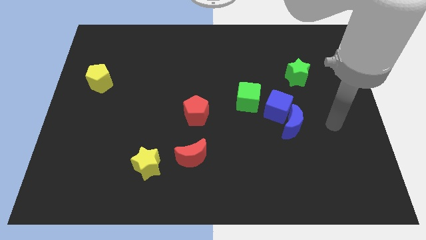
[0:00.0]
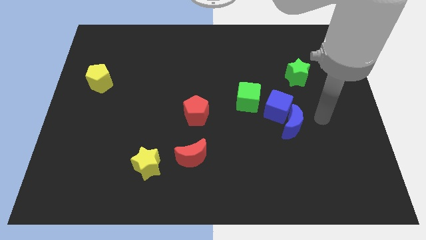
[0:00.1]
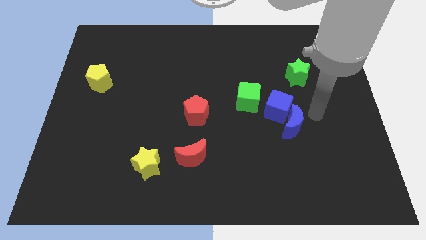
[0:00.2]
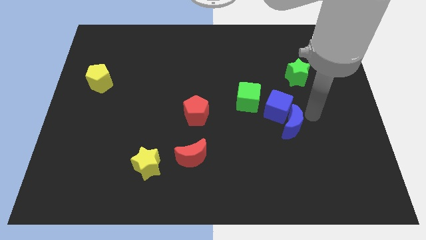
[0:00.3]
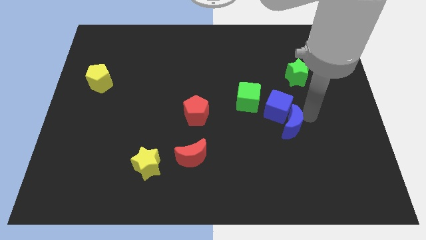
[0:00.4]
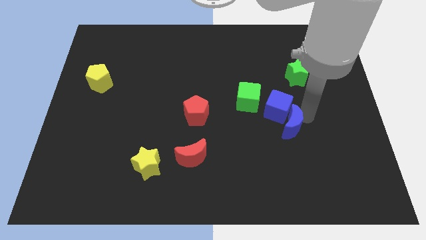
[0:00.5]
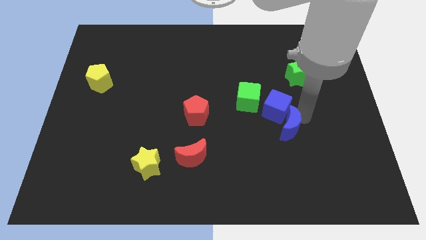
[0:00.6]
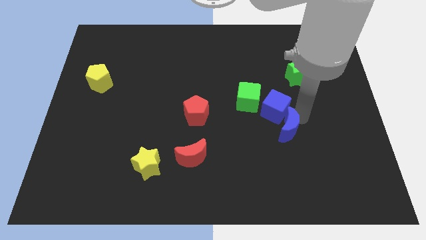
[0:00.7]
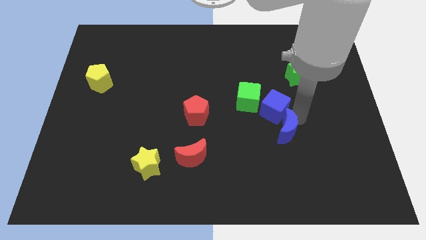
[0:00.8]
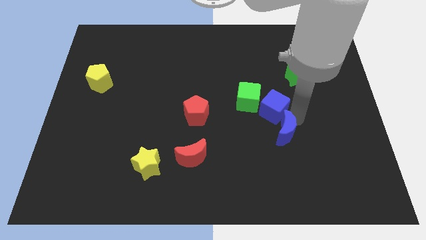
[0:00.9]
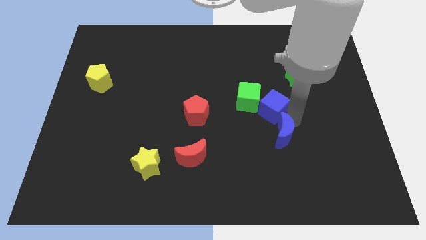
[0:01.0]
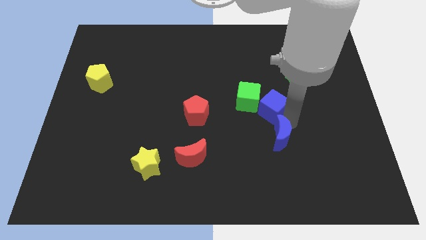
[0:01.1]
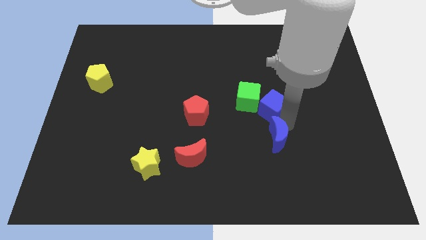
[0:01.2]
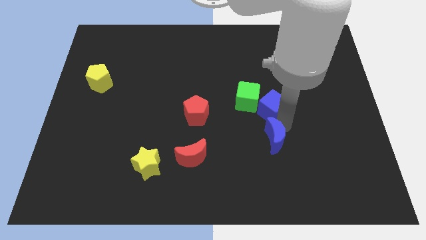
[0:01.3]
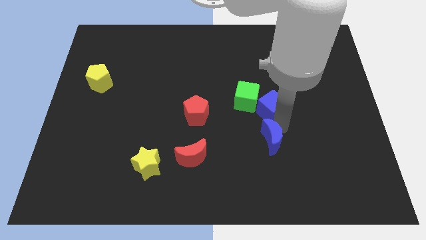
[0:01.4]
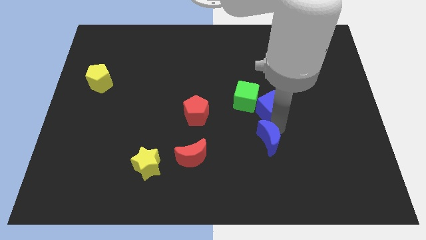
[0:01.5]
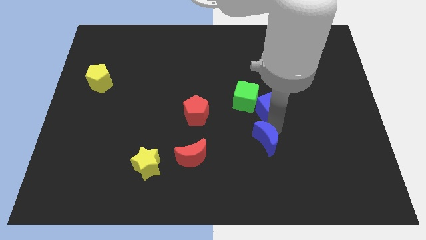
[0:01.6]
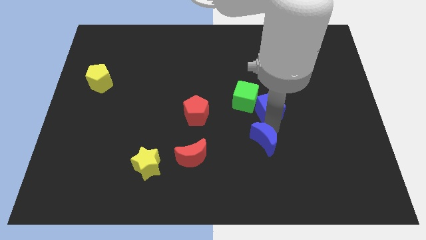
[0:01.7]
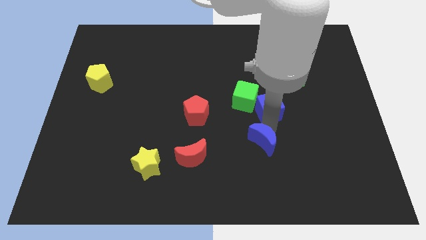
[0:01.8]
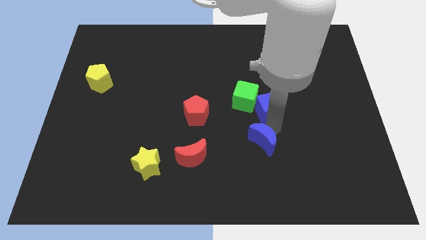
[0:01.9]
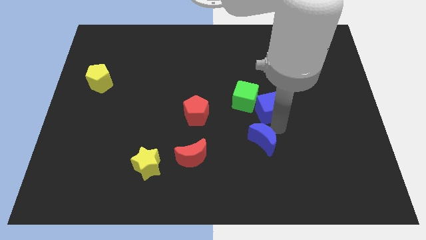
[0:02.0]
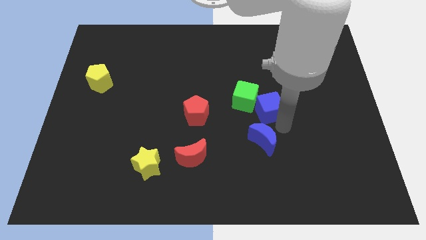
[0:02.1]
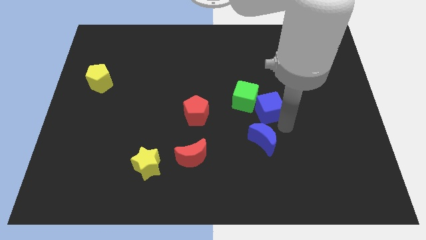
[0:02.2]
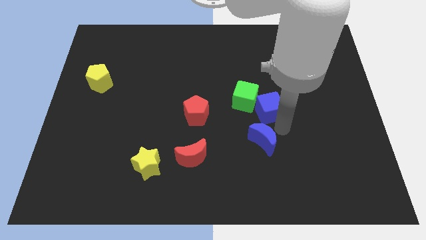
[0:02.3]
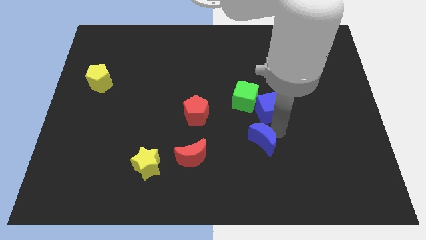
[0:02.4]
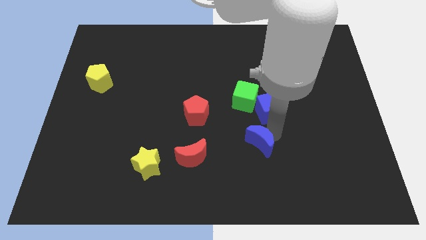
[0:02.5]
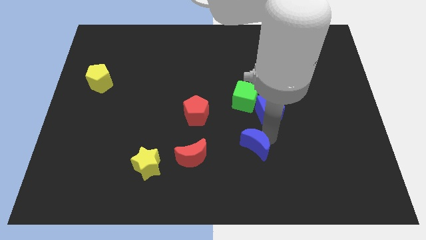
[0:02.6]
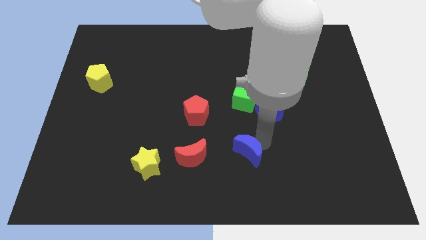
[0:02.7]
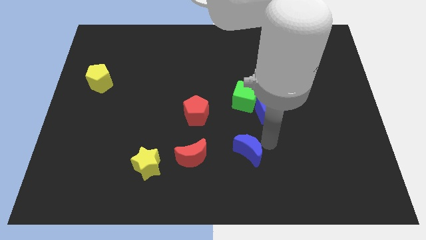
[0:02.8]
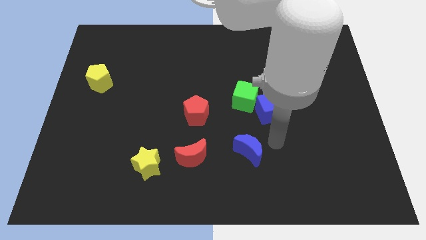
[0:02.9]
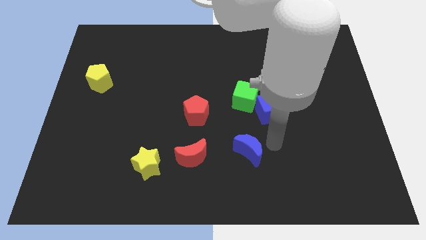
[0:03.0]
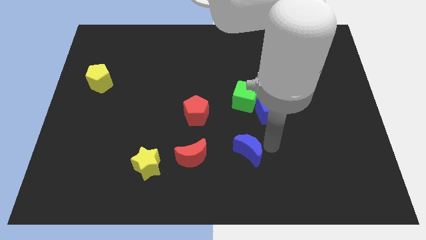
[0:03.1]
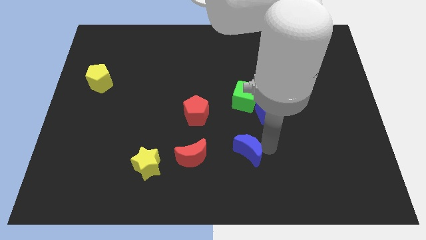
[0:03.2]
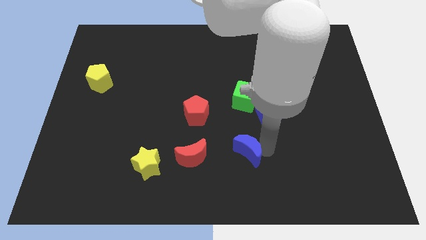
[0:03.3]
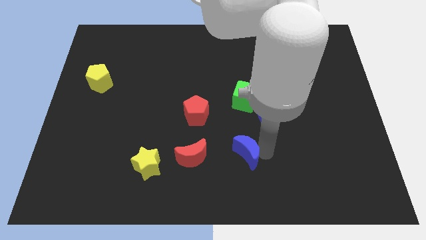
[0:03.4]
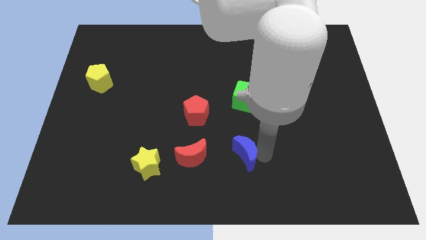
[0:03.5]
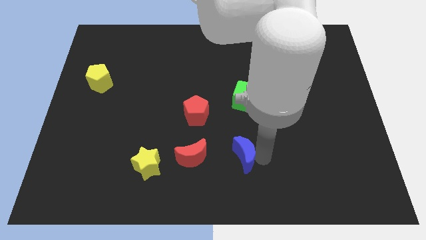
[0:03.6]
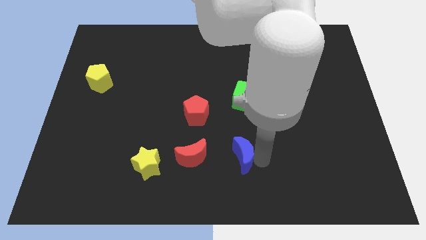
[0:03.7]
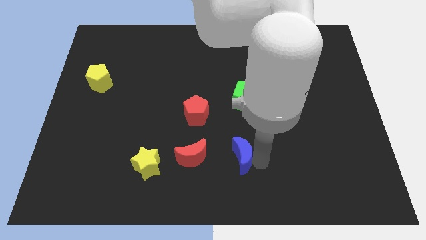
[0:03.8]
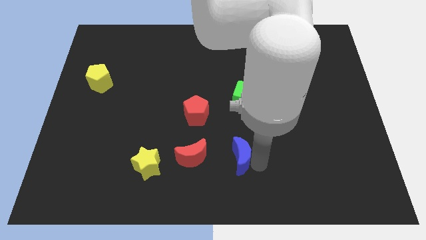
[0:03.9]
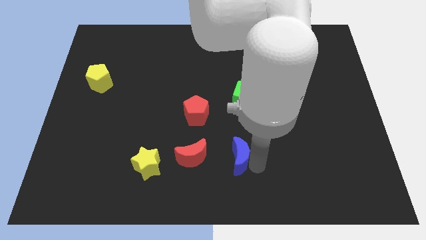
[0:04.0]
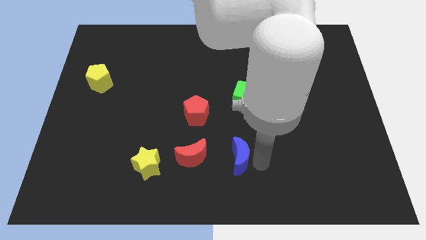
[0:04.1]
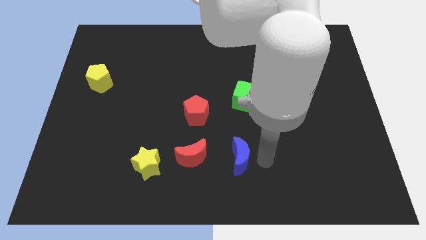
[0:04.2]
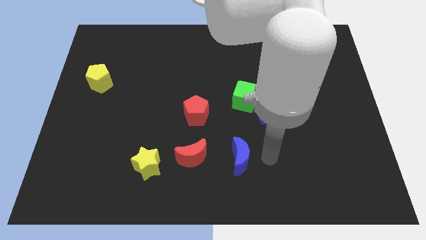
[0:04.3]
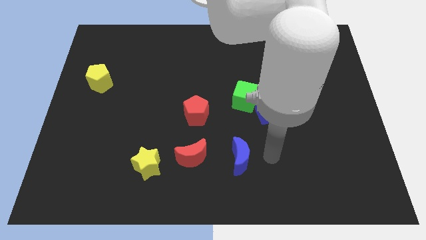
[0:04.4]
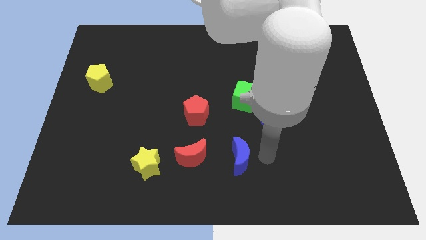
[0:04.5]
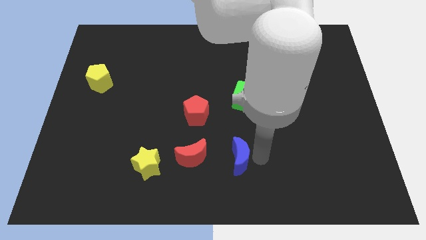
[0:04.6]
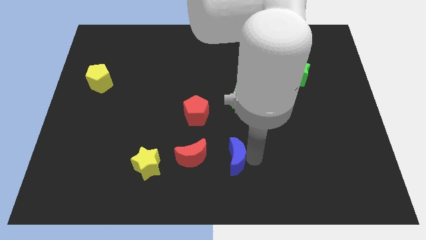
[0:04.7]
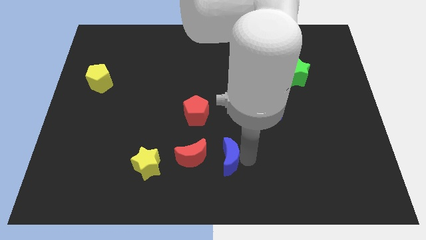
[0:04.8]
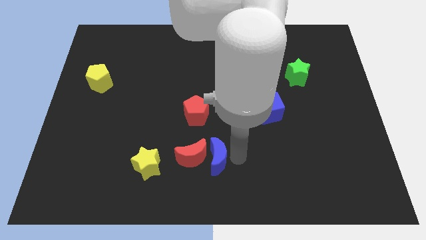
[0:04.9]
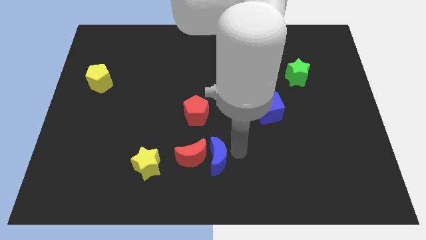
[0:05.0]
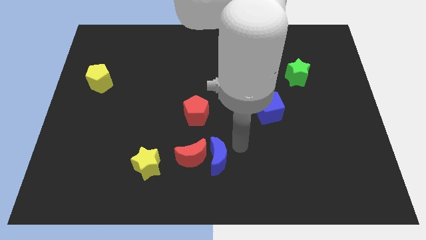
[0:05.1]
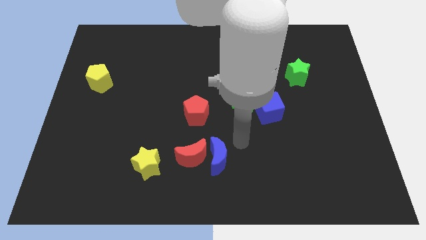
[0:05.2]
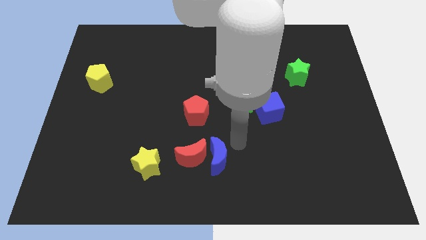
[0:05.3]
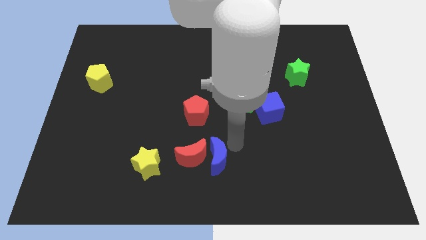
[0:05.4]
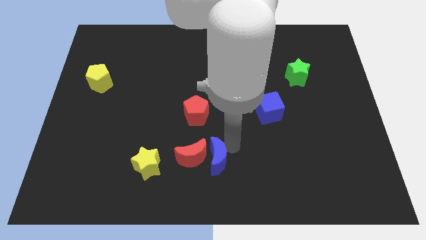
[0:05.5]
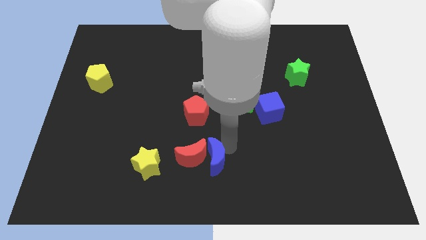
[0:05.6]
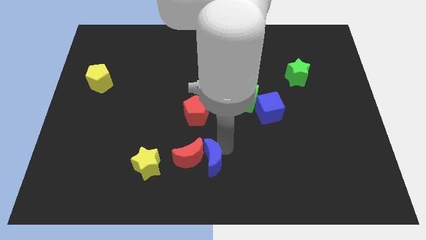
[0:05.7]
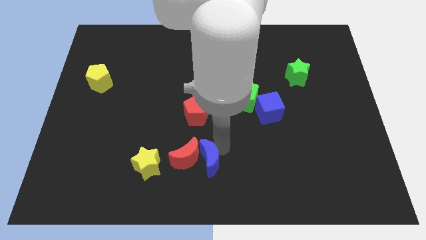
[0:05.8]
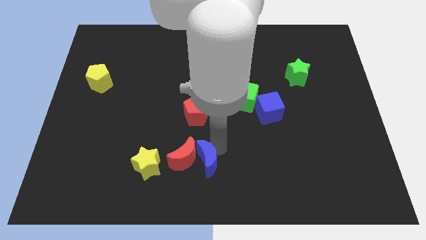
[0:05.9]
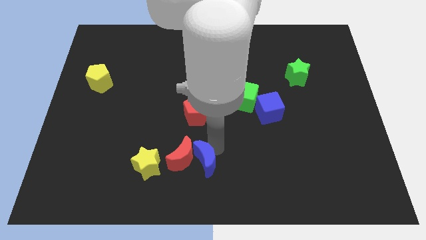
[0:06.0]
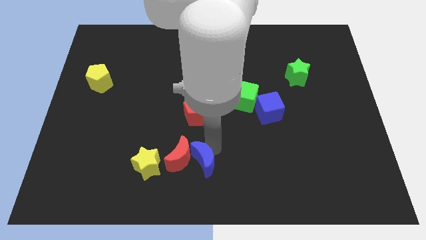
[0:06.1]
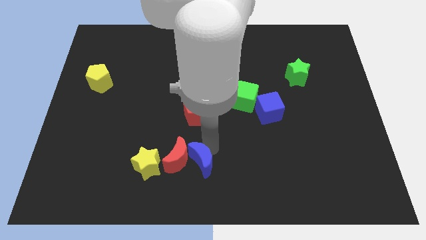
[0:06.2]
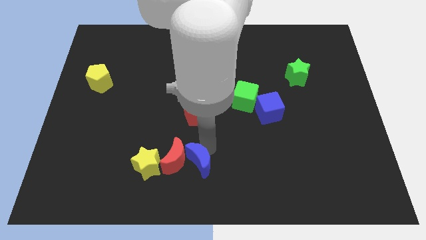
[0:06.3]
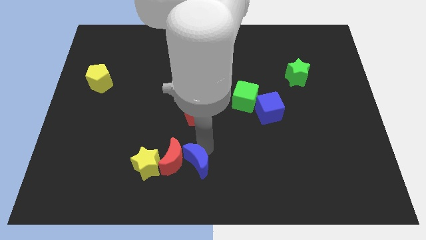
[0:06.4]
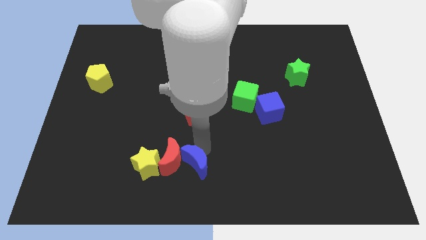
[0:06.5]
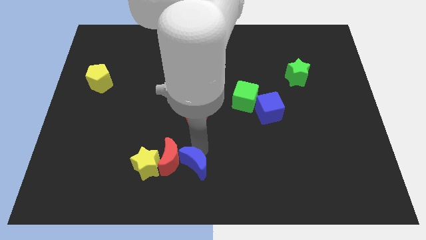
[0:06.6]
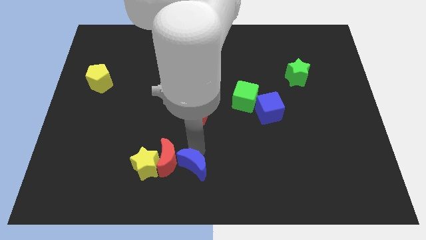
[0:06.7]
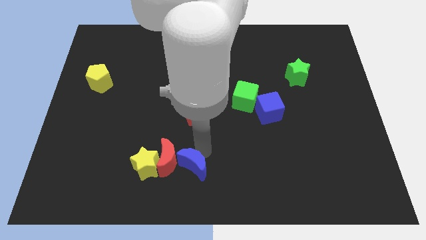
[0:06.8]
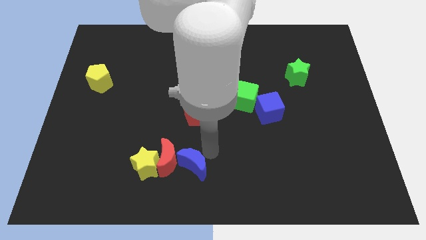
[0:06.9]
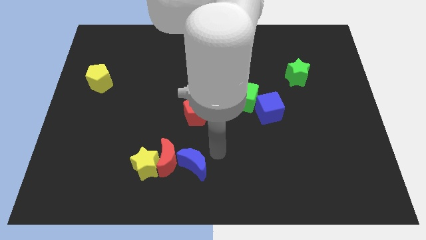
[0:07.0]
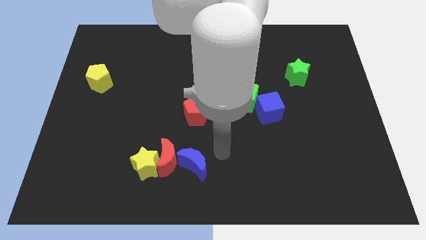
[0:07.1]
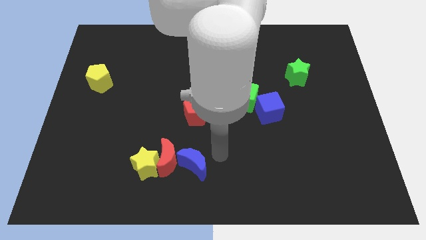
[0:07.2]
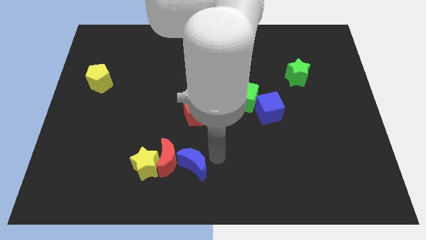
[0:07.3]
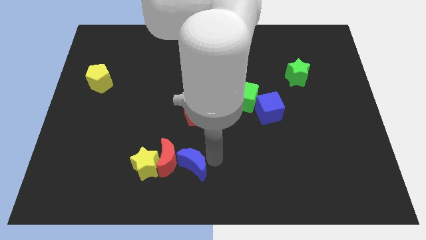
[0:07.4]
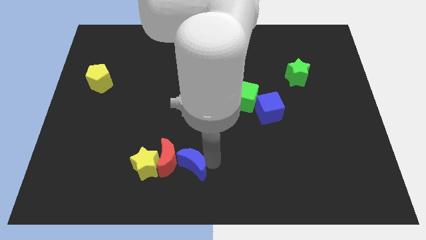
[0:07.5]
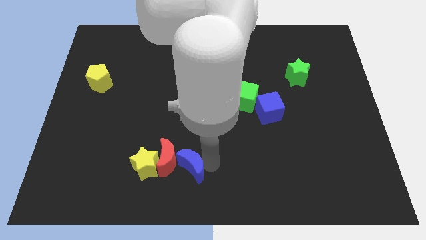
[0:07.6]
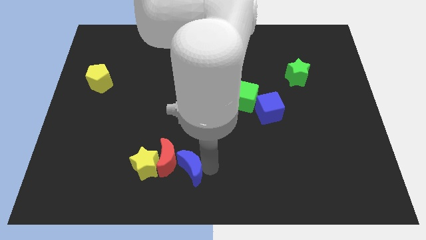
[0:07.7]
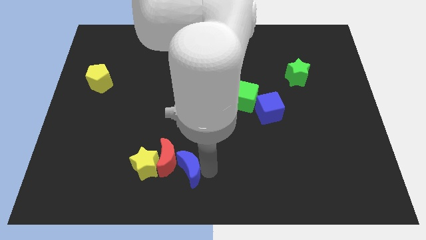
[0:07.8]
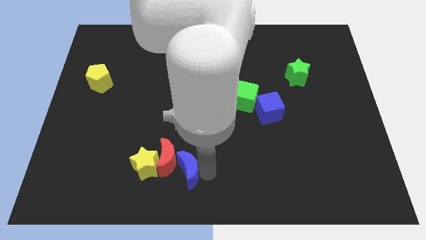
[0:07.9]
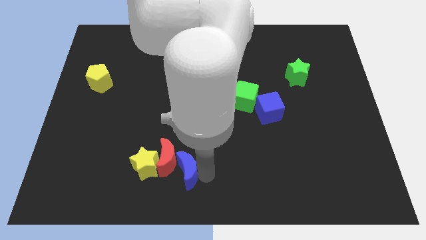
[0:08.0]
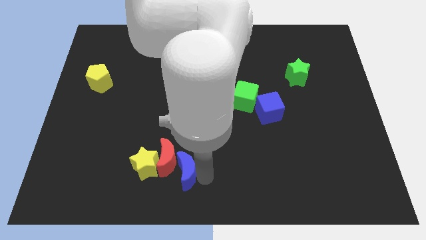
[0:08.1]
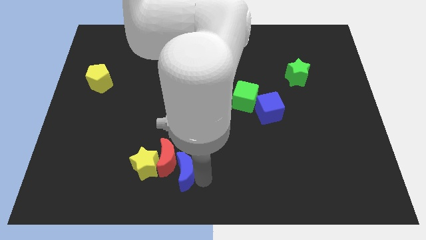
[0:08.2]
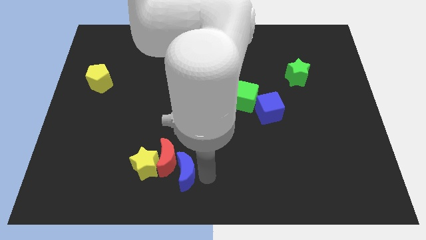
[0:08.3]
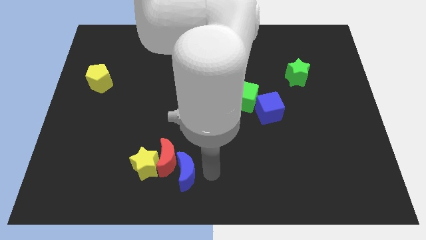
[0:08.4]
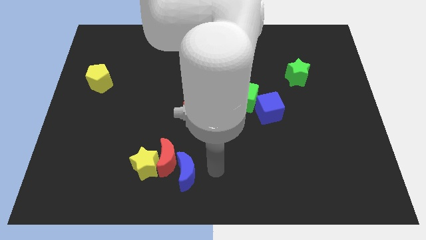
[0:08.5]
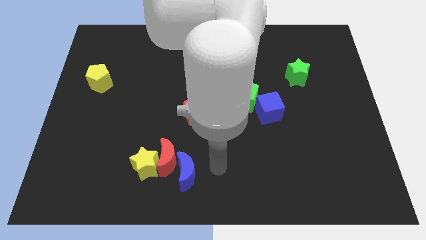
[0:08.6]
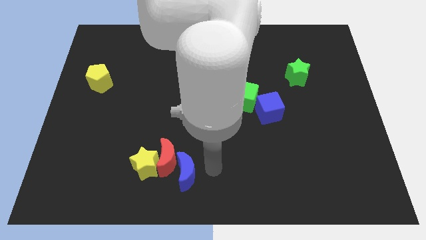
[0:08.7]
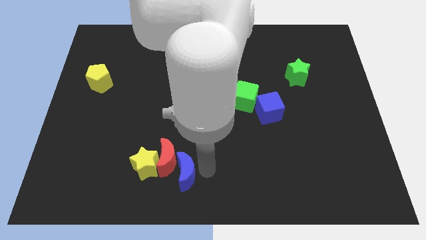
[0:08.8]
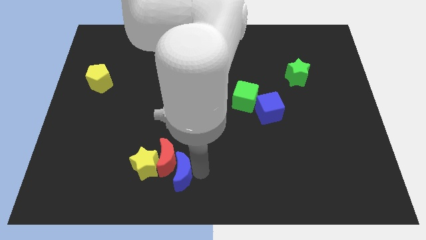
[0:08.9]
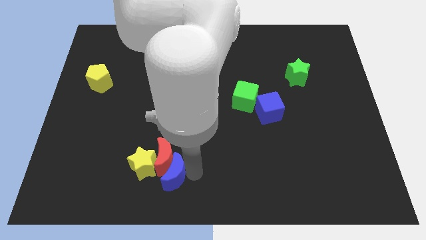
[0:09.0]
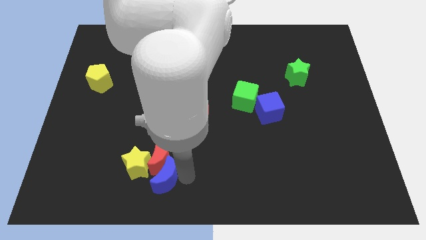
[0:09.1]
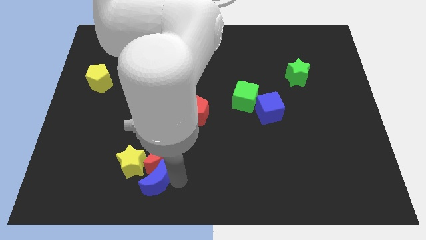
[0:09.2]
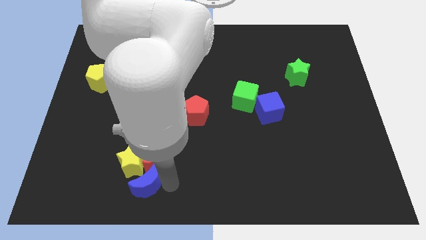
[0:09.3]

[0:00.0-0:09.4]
push the blue moon to the yellow star
